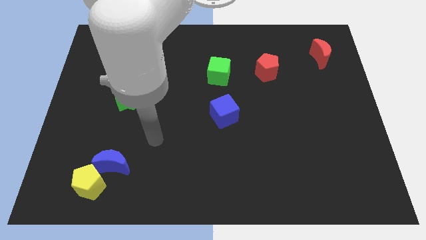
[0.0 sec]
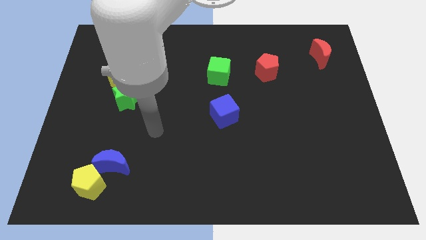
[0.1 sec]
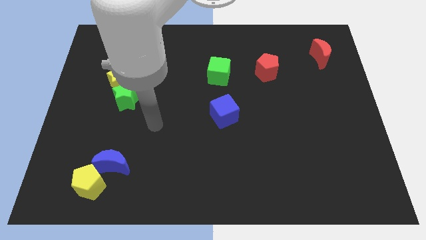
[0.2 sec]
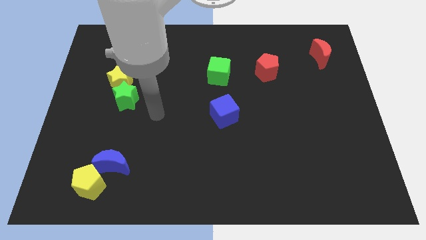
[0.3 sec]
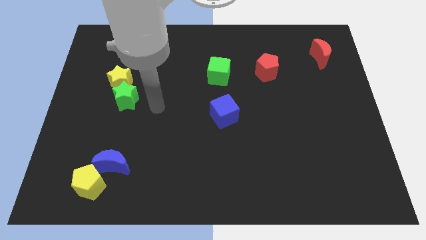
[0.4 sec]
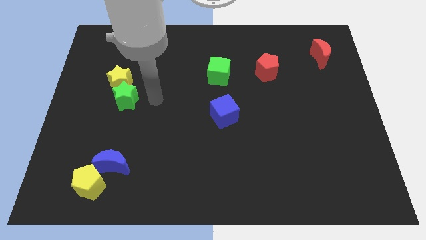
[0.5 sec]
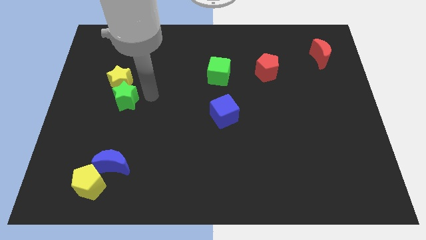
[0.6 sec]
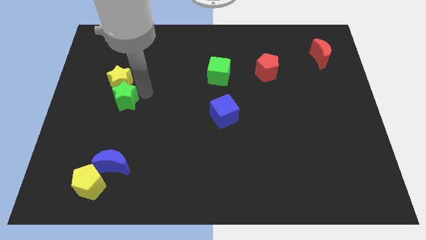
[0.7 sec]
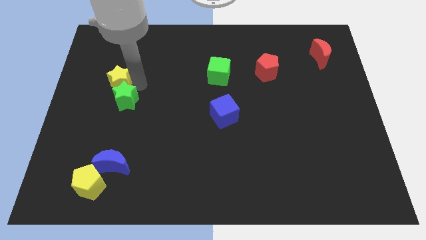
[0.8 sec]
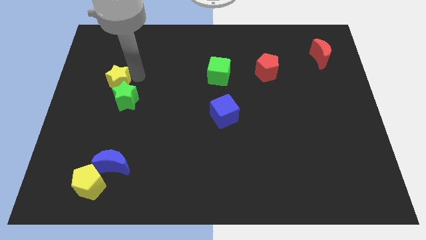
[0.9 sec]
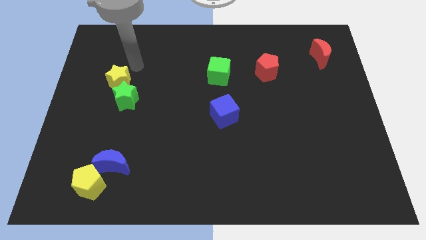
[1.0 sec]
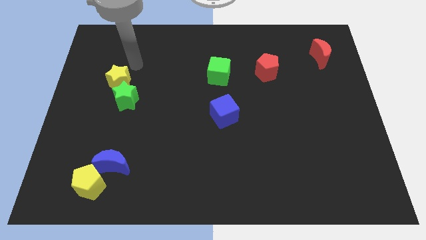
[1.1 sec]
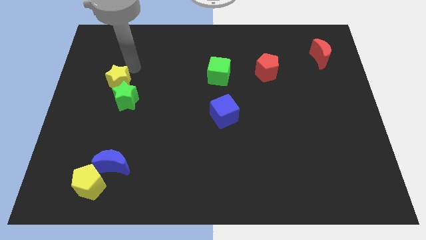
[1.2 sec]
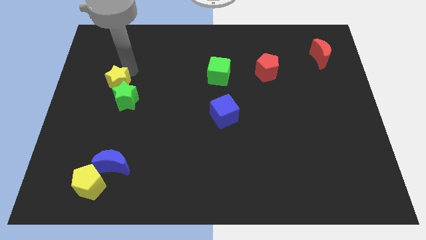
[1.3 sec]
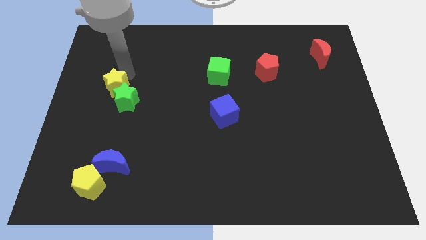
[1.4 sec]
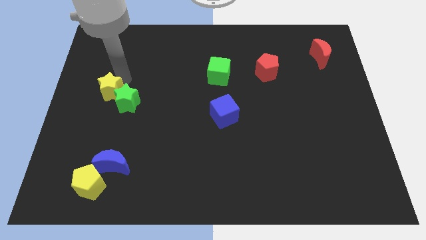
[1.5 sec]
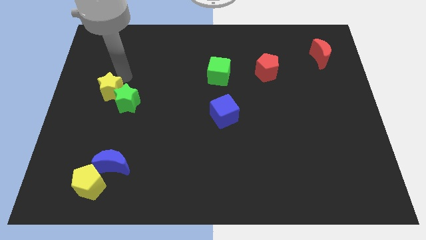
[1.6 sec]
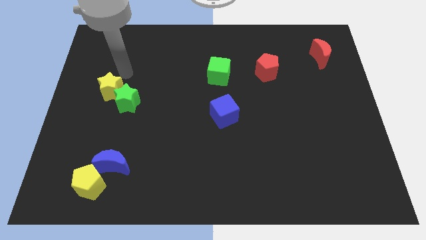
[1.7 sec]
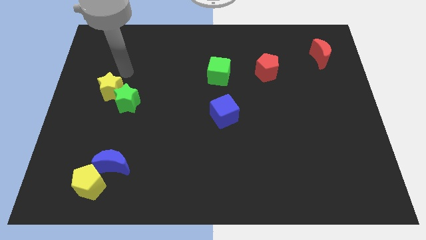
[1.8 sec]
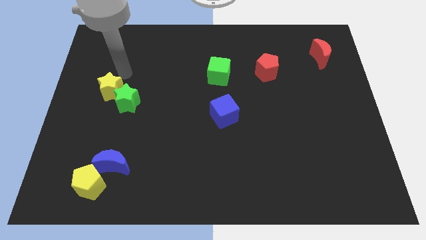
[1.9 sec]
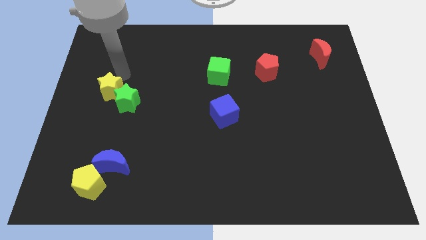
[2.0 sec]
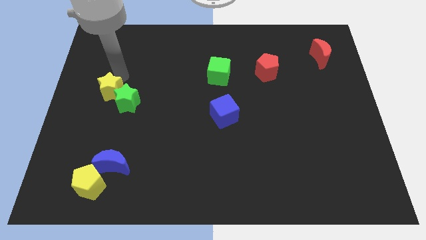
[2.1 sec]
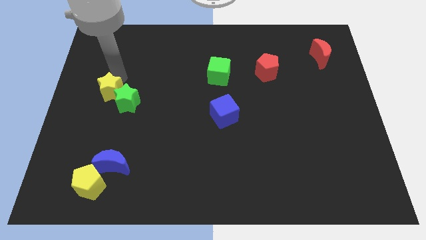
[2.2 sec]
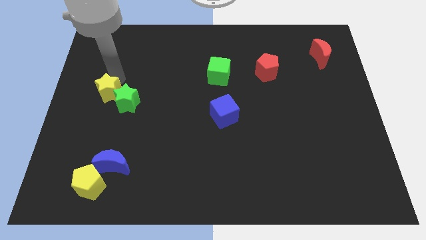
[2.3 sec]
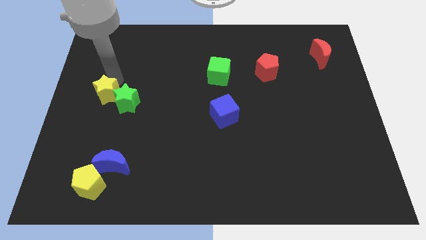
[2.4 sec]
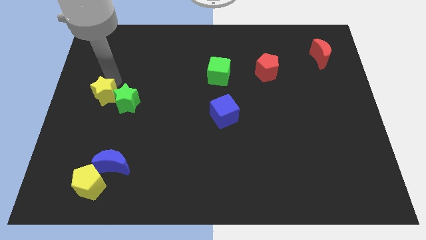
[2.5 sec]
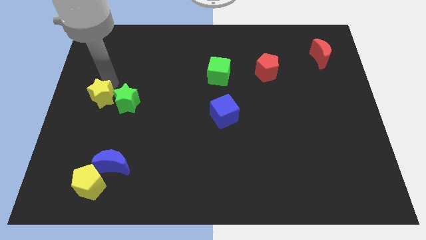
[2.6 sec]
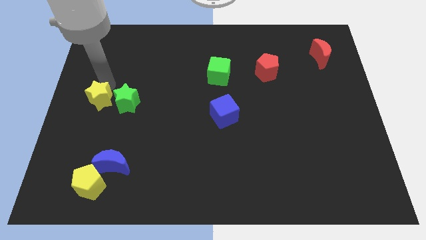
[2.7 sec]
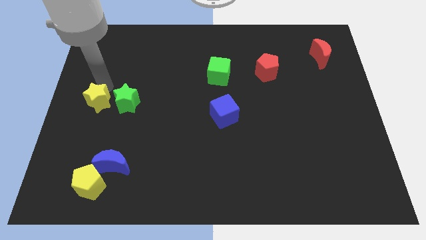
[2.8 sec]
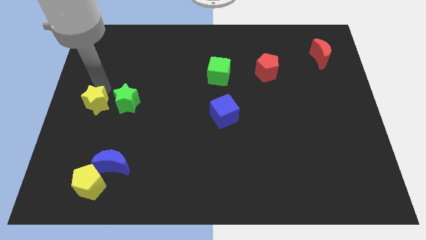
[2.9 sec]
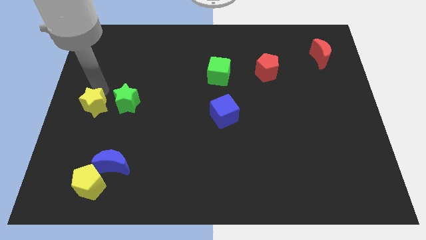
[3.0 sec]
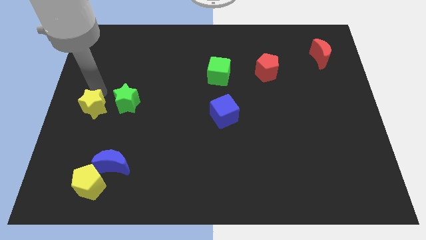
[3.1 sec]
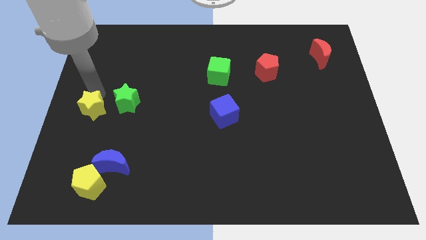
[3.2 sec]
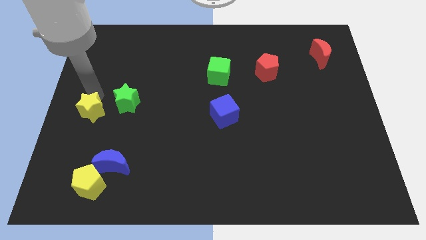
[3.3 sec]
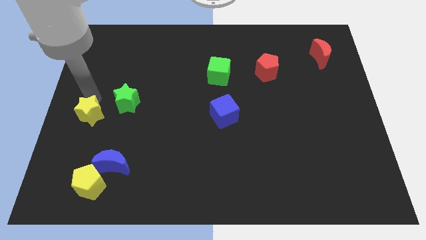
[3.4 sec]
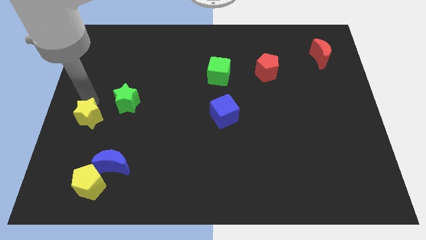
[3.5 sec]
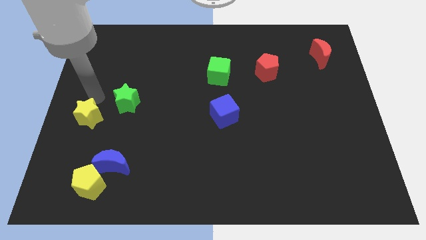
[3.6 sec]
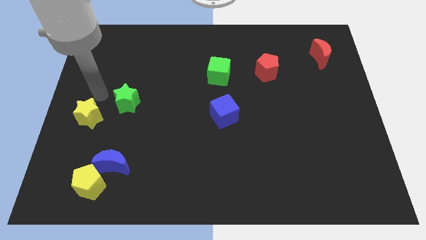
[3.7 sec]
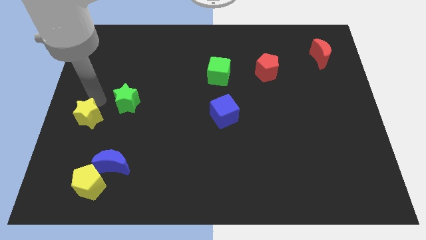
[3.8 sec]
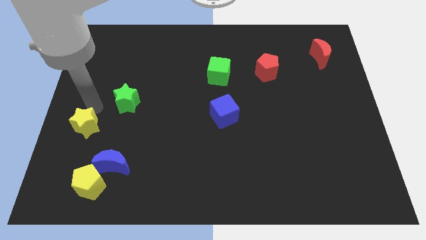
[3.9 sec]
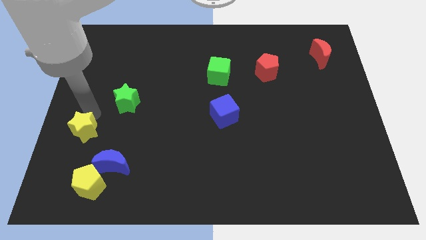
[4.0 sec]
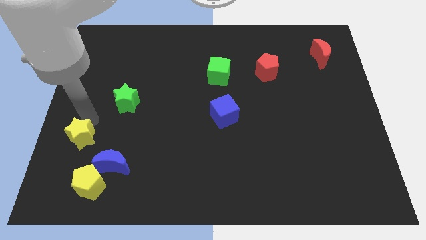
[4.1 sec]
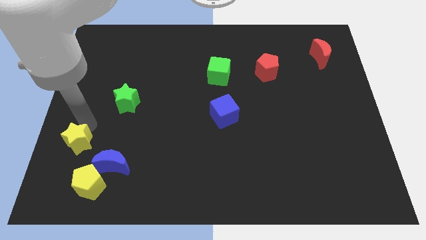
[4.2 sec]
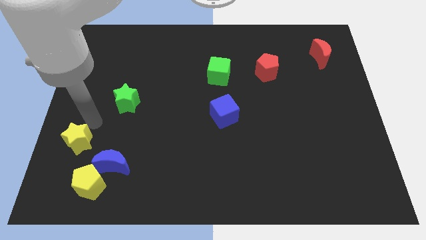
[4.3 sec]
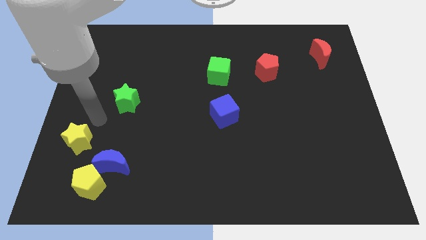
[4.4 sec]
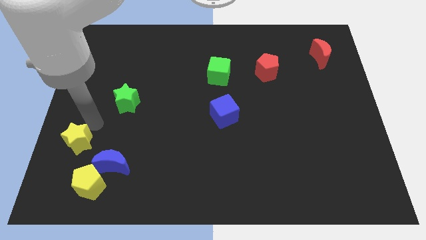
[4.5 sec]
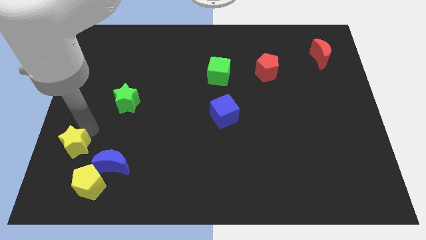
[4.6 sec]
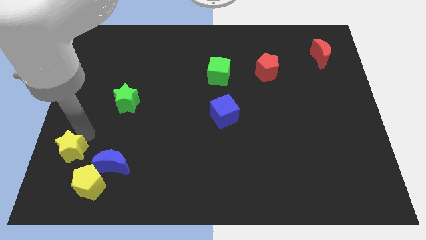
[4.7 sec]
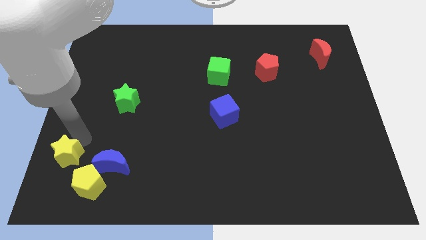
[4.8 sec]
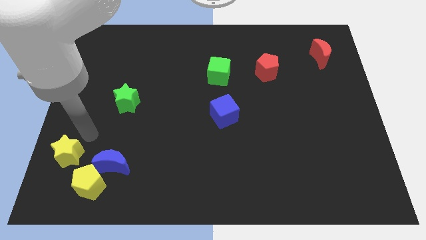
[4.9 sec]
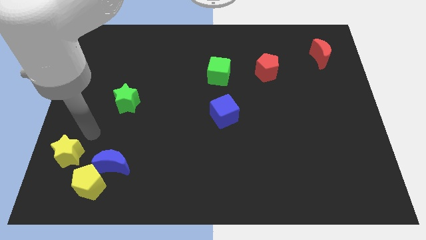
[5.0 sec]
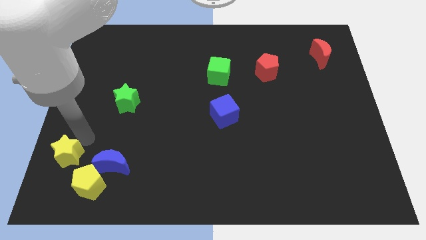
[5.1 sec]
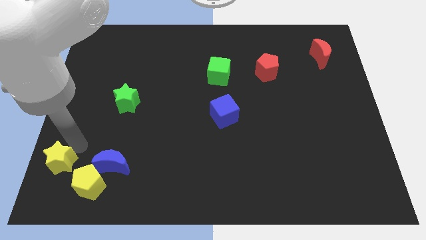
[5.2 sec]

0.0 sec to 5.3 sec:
put the yellow star to the bottom left

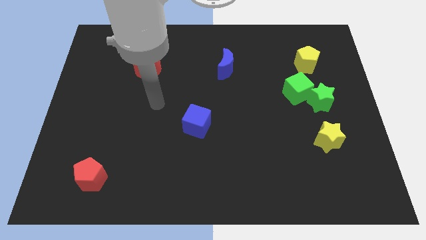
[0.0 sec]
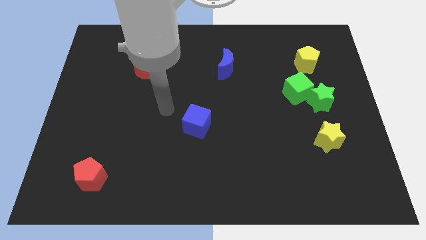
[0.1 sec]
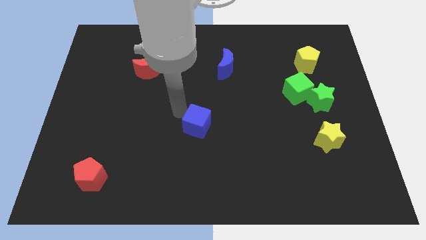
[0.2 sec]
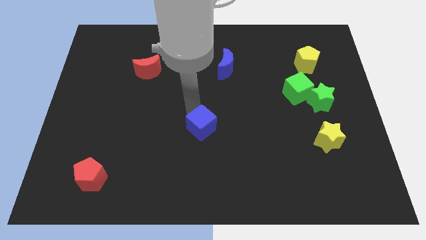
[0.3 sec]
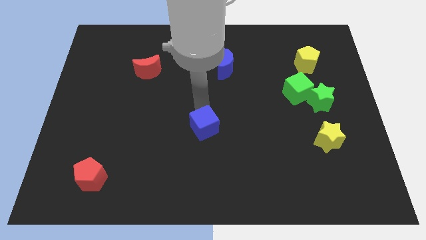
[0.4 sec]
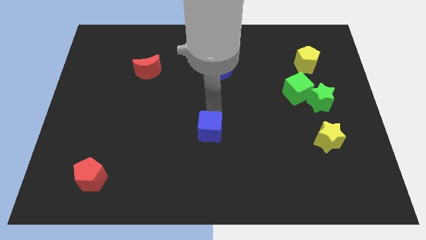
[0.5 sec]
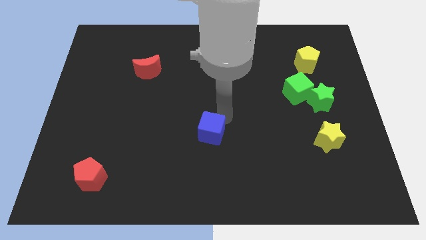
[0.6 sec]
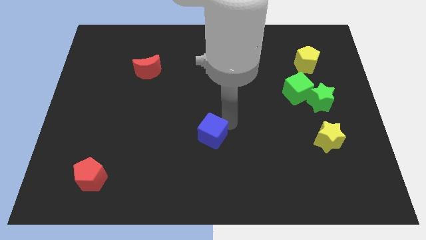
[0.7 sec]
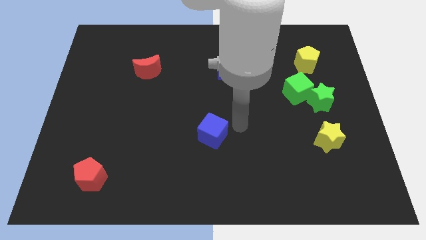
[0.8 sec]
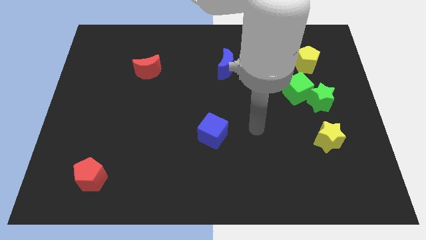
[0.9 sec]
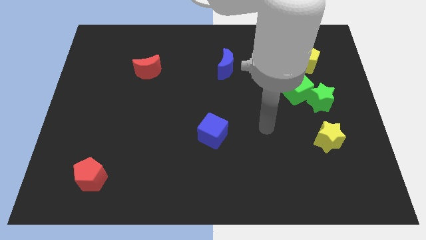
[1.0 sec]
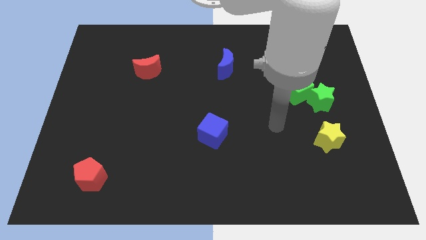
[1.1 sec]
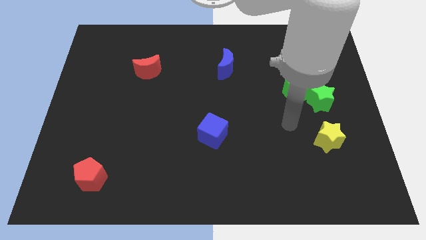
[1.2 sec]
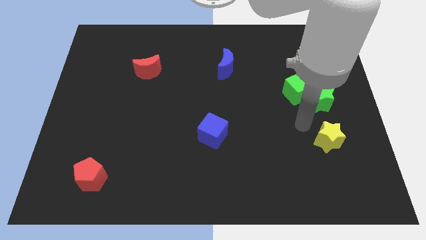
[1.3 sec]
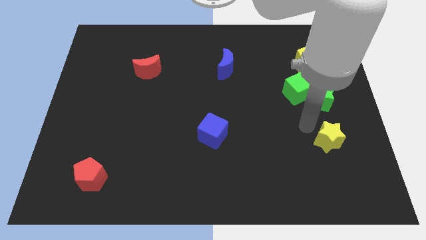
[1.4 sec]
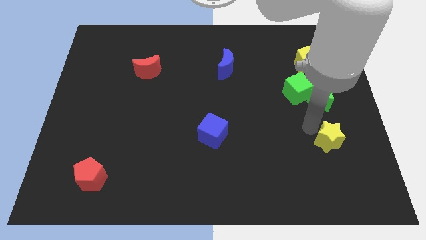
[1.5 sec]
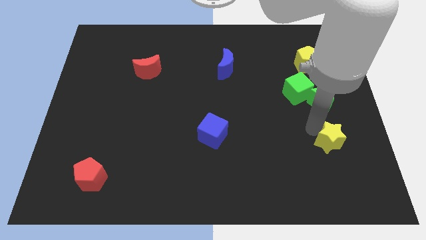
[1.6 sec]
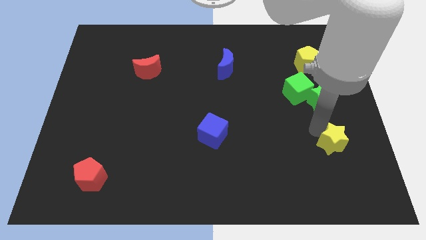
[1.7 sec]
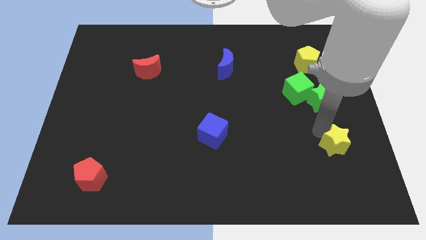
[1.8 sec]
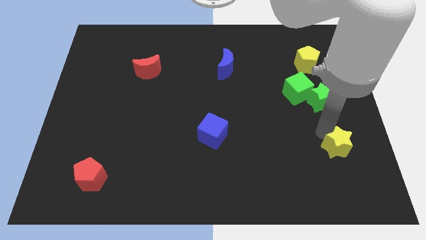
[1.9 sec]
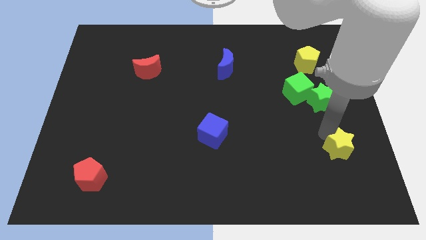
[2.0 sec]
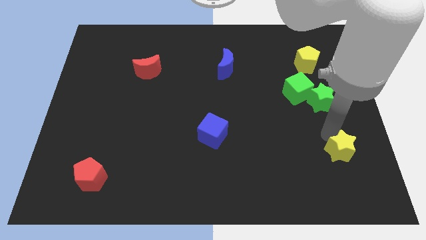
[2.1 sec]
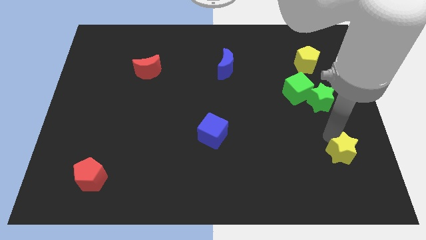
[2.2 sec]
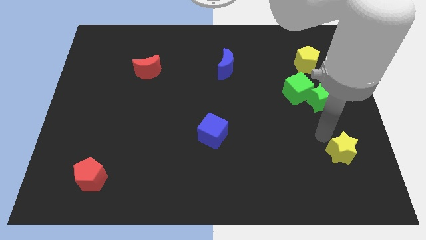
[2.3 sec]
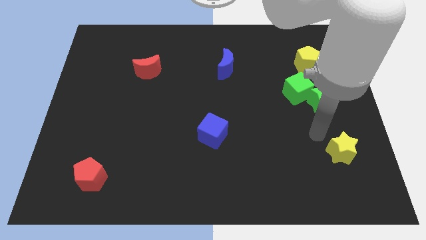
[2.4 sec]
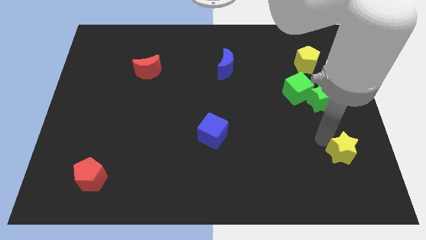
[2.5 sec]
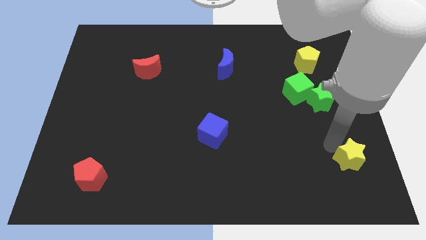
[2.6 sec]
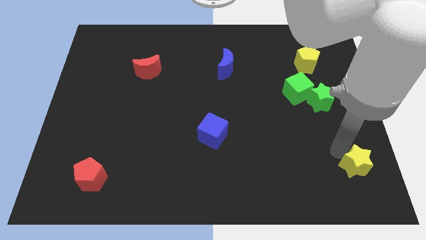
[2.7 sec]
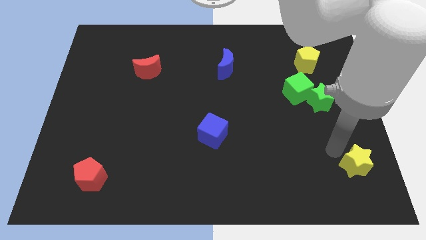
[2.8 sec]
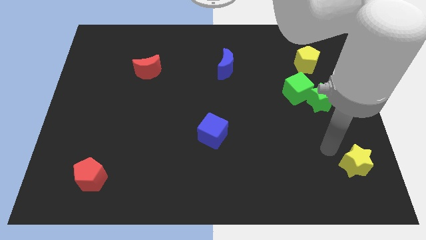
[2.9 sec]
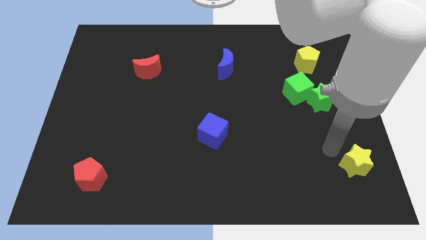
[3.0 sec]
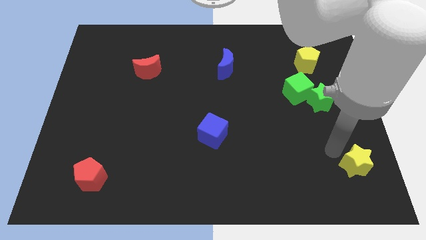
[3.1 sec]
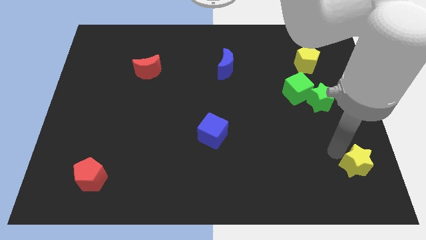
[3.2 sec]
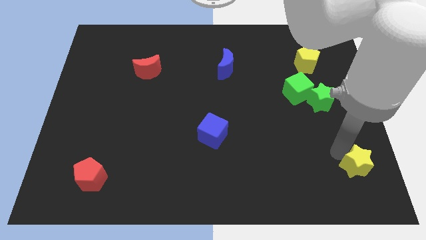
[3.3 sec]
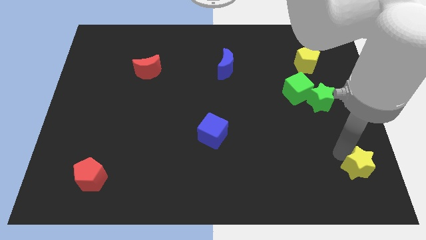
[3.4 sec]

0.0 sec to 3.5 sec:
move the yellow star to the bottom right
